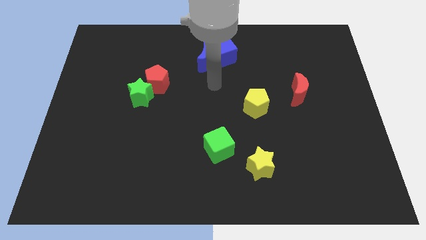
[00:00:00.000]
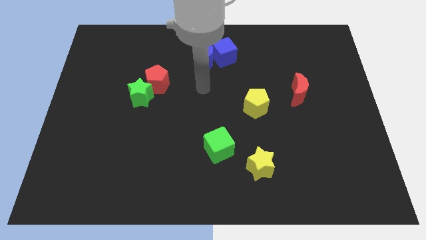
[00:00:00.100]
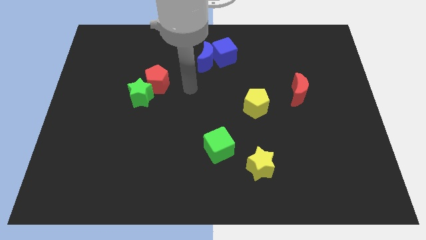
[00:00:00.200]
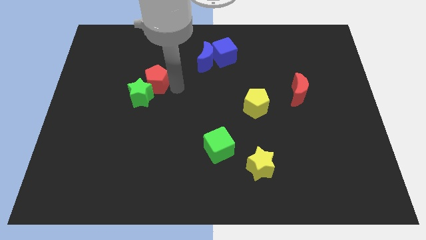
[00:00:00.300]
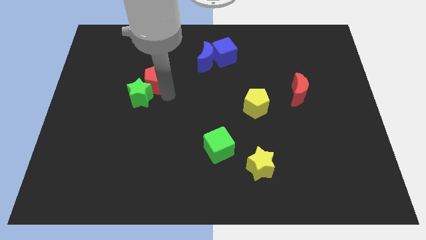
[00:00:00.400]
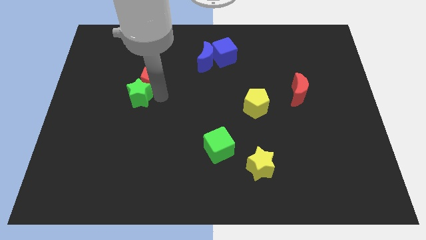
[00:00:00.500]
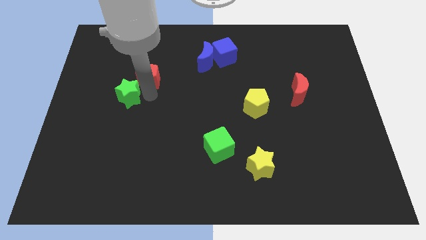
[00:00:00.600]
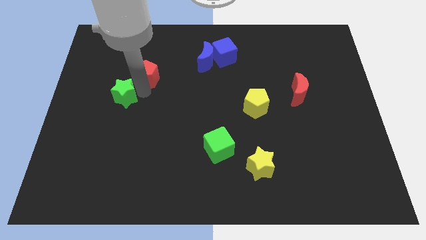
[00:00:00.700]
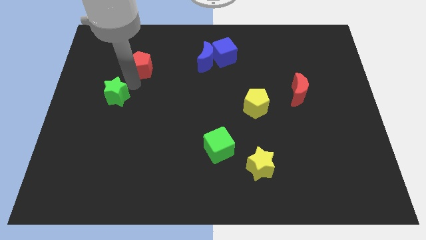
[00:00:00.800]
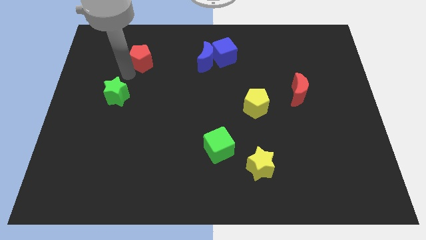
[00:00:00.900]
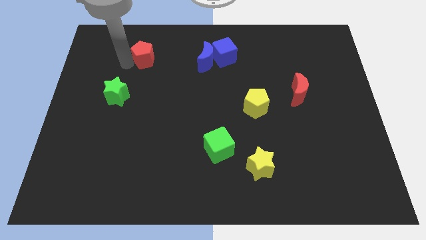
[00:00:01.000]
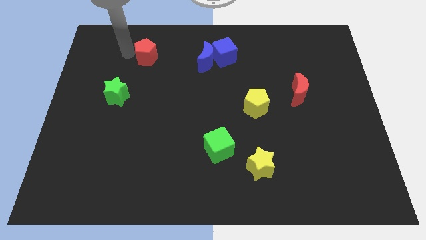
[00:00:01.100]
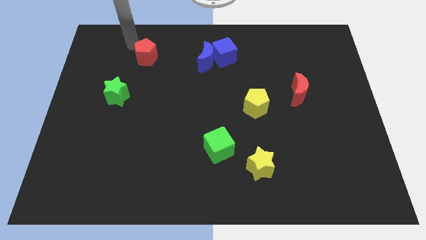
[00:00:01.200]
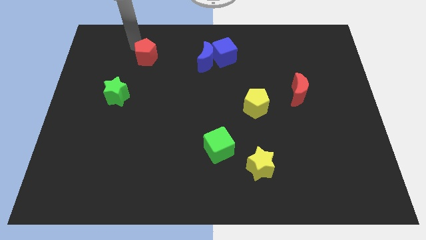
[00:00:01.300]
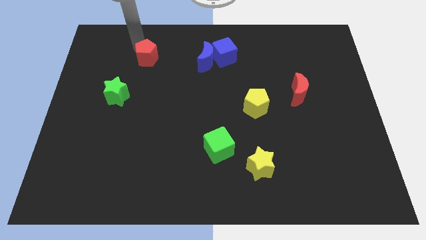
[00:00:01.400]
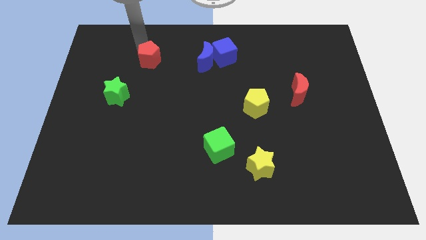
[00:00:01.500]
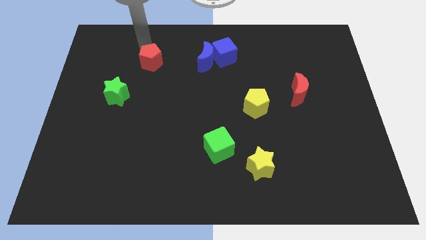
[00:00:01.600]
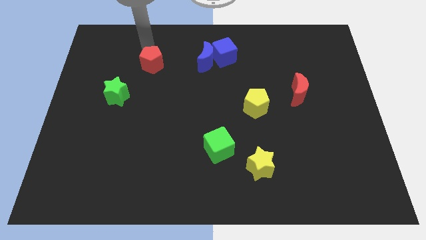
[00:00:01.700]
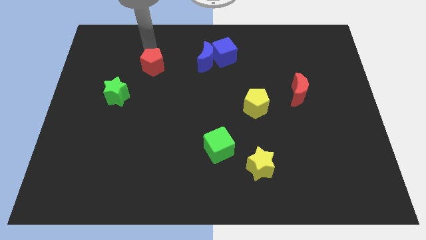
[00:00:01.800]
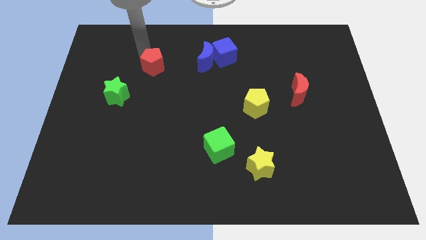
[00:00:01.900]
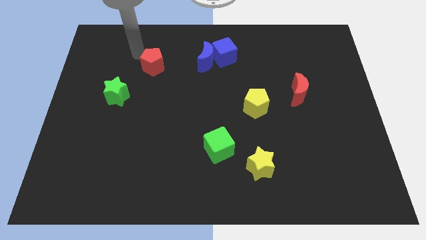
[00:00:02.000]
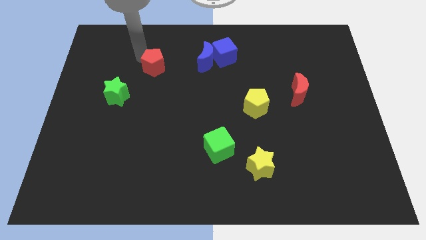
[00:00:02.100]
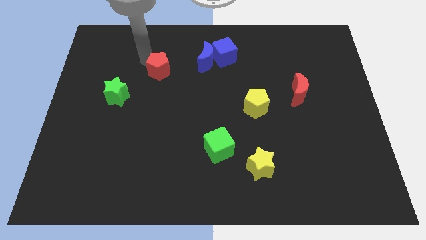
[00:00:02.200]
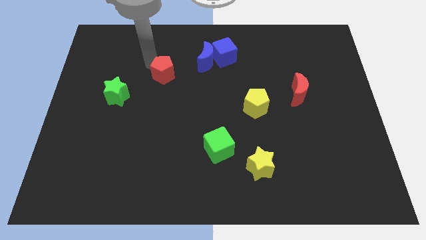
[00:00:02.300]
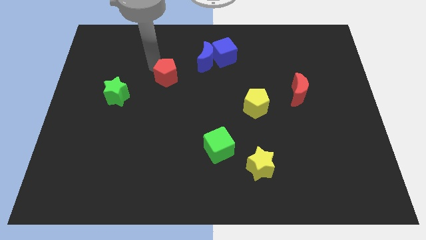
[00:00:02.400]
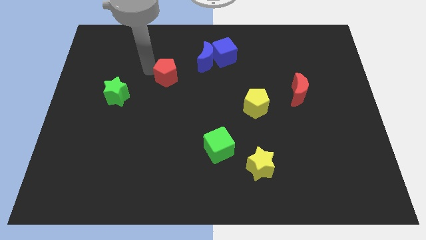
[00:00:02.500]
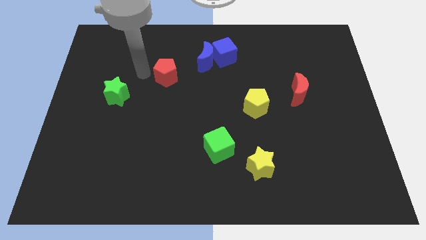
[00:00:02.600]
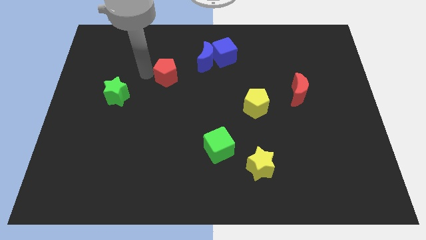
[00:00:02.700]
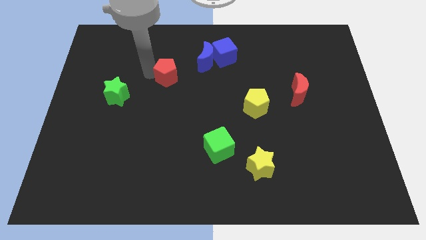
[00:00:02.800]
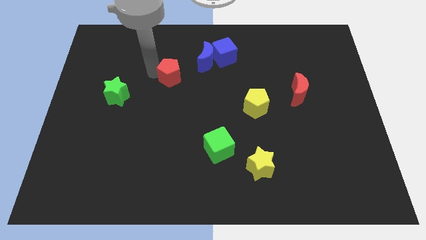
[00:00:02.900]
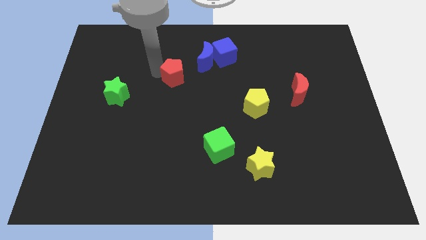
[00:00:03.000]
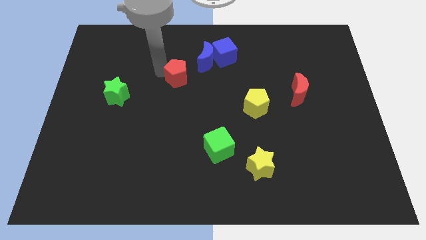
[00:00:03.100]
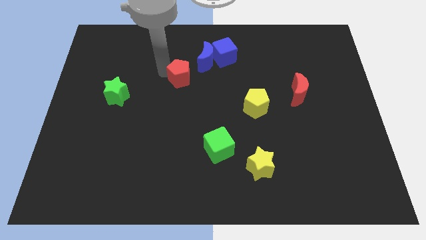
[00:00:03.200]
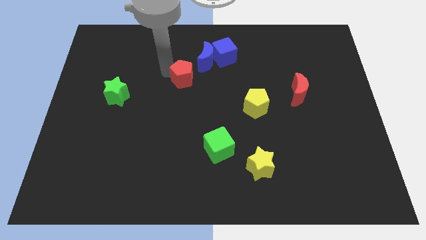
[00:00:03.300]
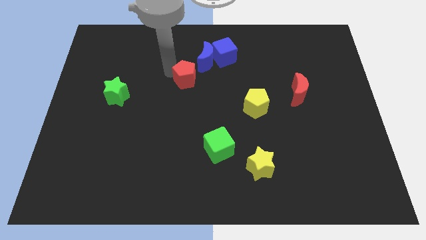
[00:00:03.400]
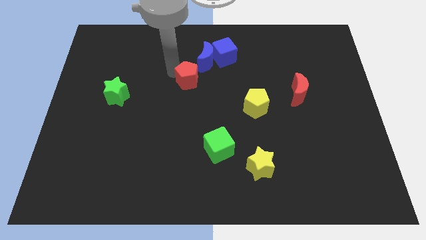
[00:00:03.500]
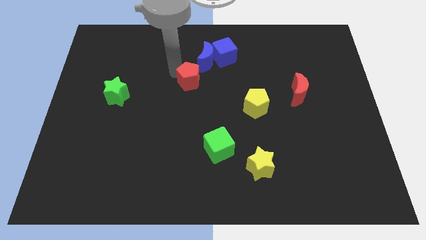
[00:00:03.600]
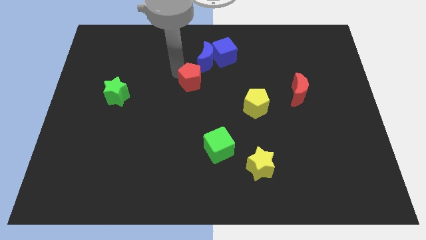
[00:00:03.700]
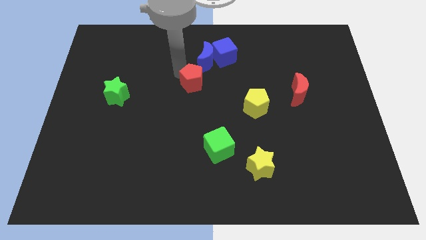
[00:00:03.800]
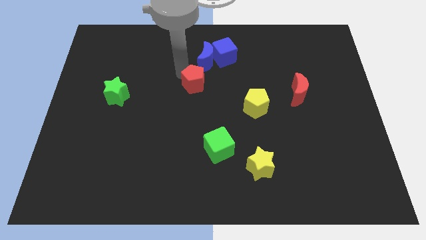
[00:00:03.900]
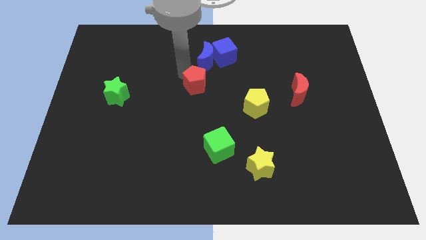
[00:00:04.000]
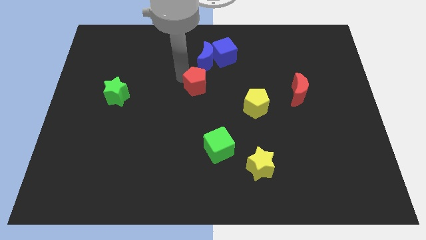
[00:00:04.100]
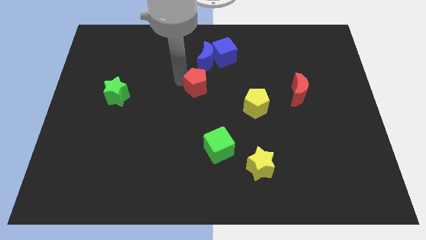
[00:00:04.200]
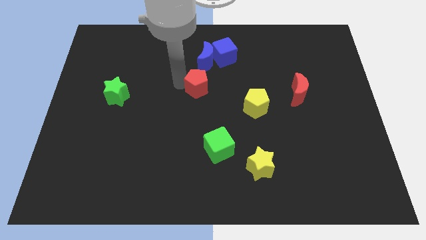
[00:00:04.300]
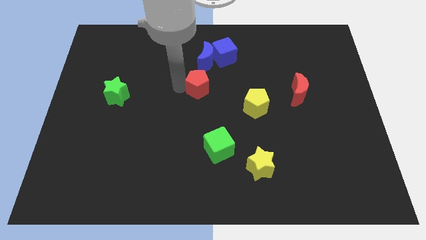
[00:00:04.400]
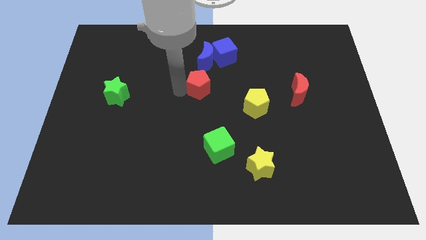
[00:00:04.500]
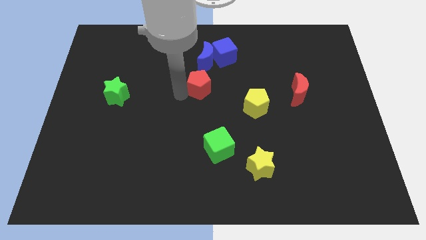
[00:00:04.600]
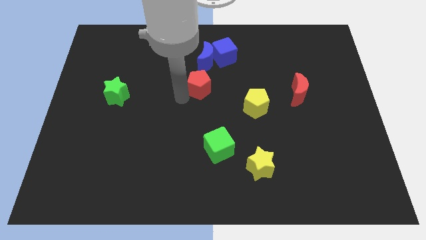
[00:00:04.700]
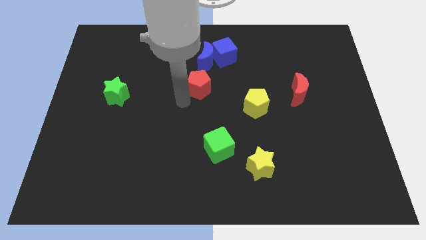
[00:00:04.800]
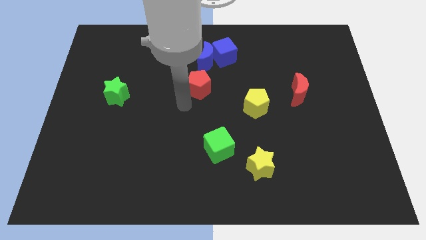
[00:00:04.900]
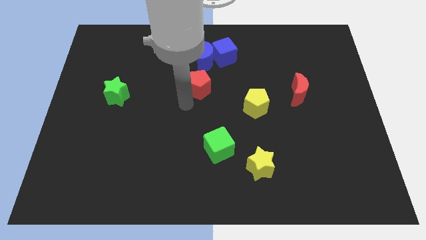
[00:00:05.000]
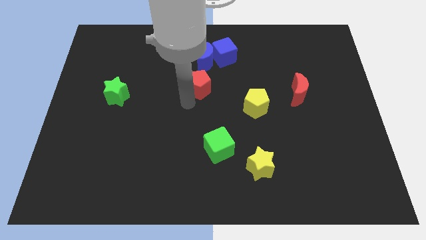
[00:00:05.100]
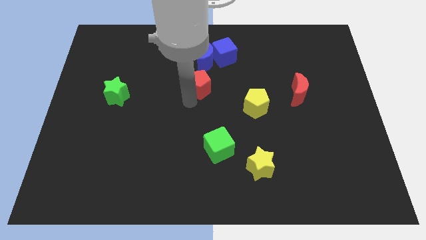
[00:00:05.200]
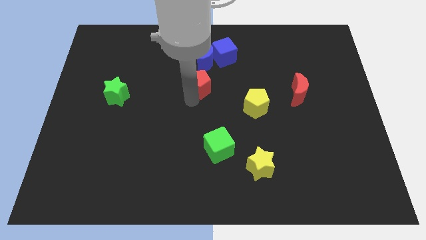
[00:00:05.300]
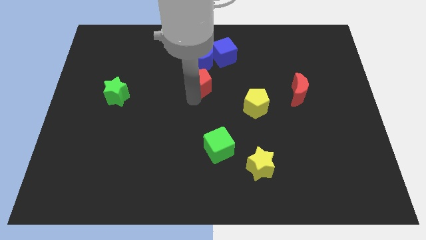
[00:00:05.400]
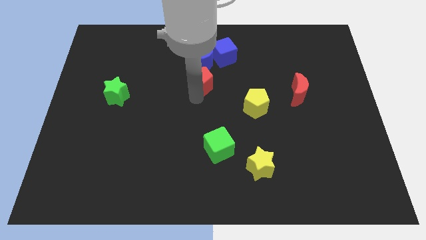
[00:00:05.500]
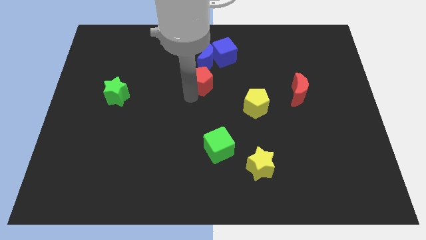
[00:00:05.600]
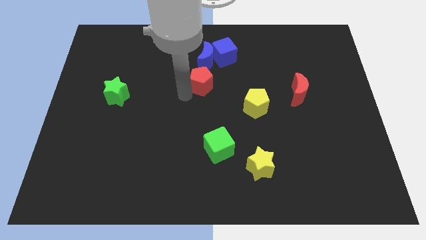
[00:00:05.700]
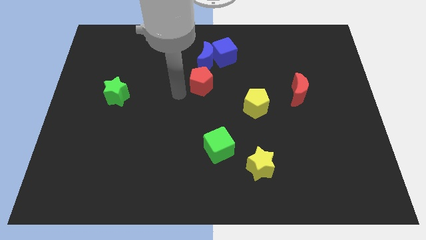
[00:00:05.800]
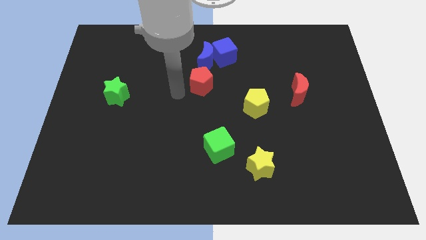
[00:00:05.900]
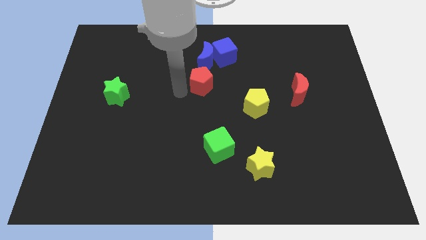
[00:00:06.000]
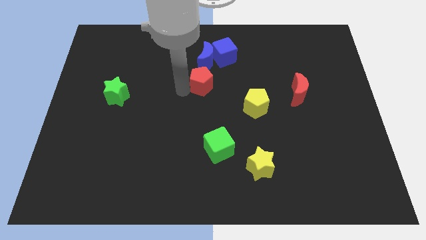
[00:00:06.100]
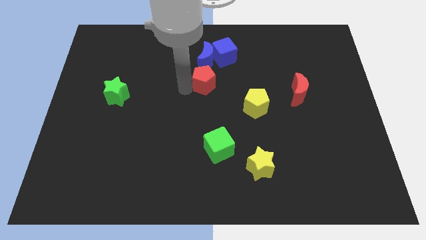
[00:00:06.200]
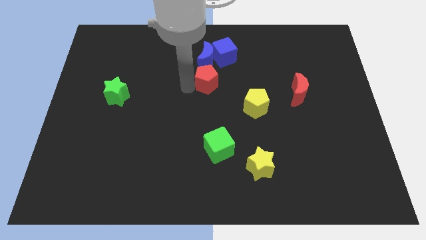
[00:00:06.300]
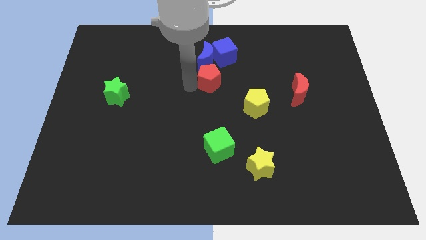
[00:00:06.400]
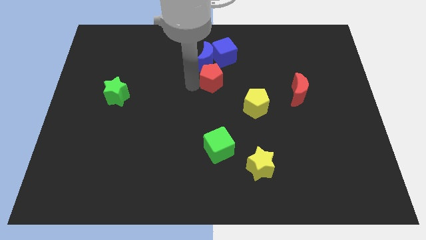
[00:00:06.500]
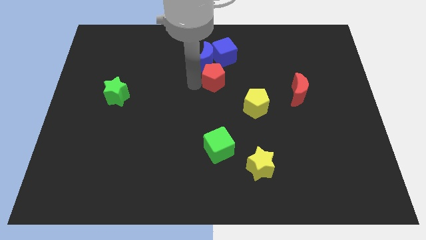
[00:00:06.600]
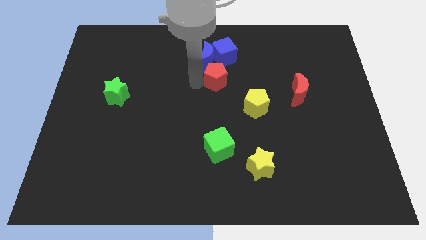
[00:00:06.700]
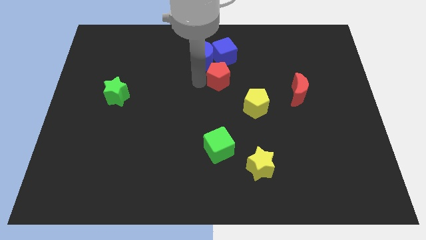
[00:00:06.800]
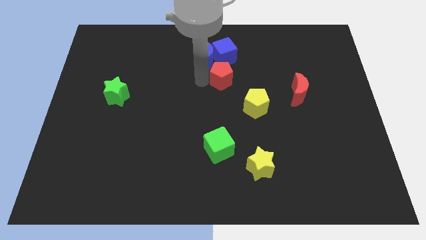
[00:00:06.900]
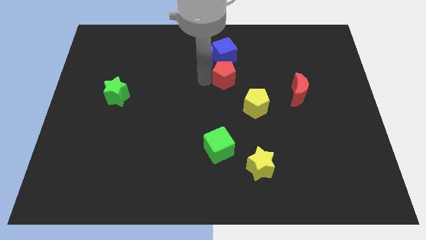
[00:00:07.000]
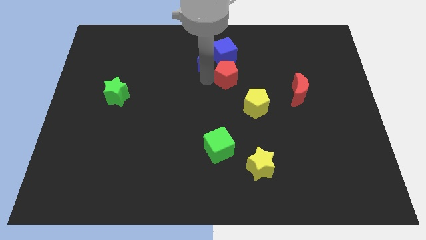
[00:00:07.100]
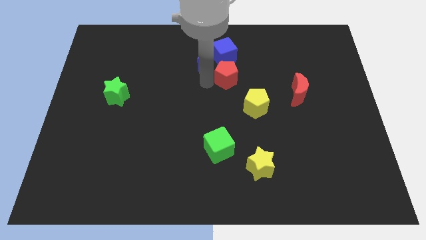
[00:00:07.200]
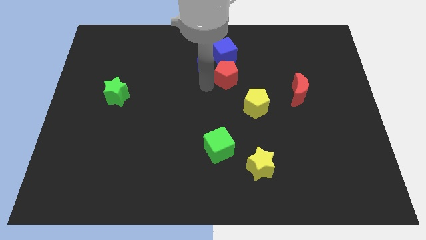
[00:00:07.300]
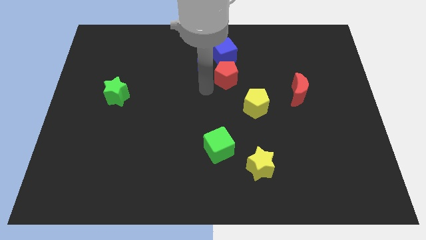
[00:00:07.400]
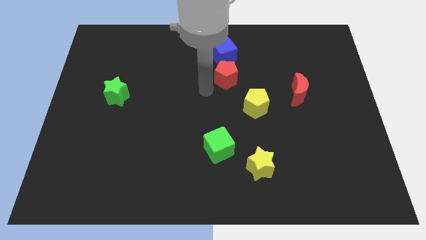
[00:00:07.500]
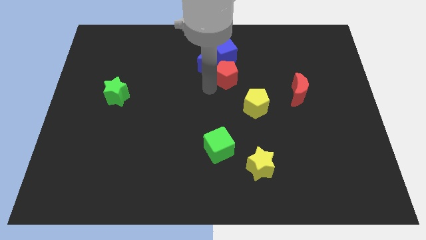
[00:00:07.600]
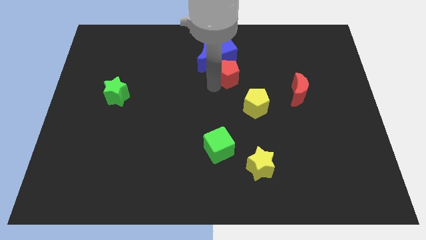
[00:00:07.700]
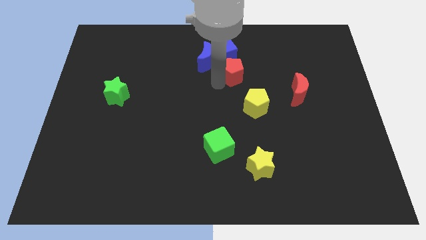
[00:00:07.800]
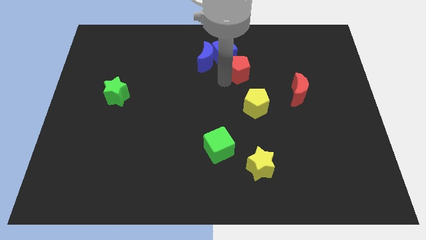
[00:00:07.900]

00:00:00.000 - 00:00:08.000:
put the red pentagon to the right side of the blue moon
